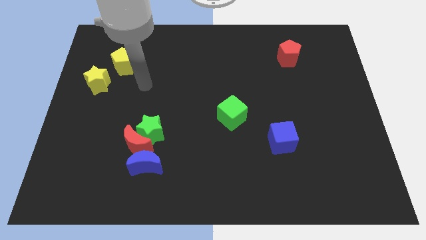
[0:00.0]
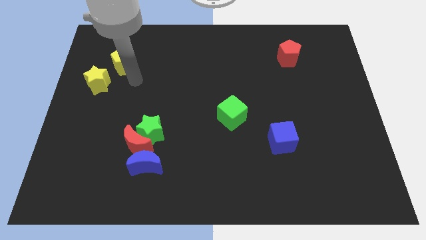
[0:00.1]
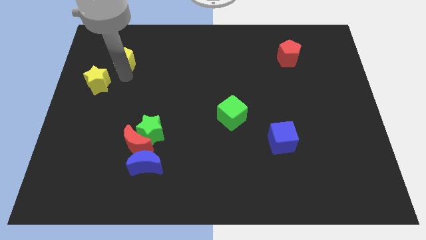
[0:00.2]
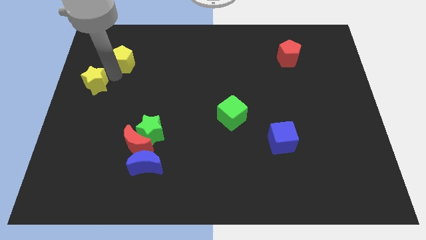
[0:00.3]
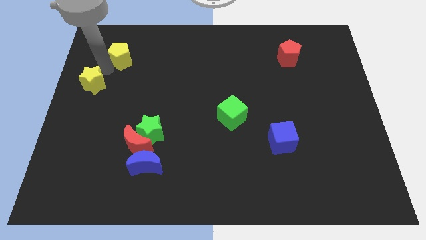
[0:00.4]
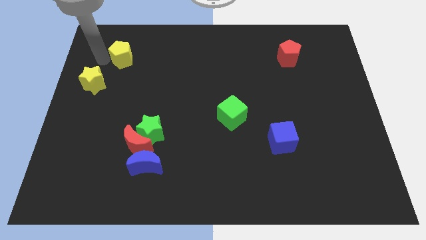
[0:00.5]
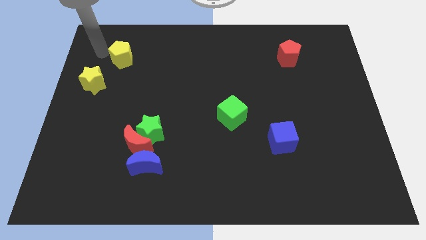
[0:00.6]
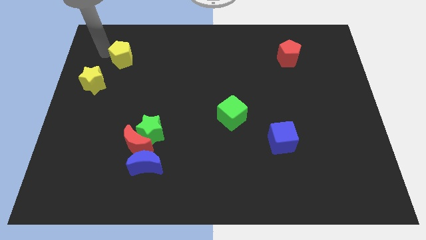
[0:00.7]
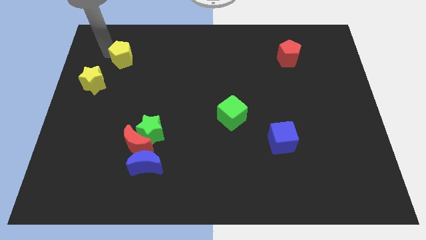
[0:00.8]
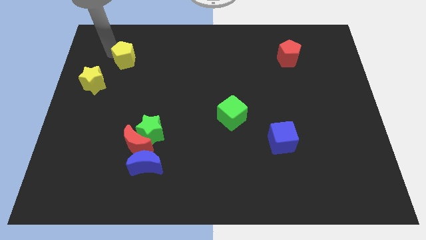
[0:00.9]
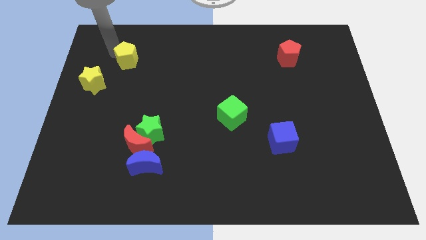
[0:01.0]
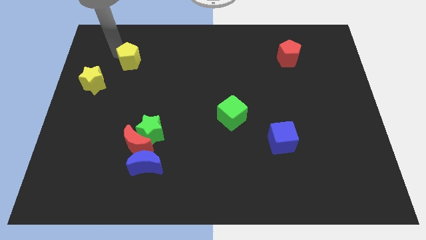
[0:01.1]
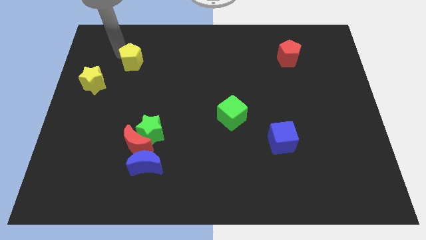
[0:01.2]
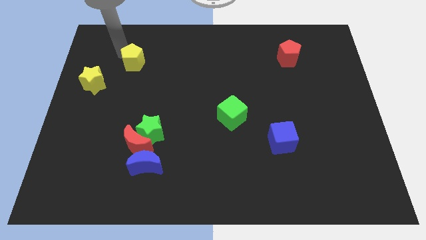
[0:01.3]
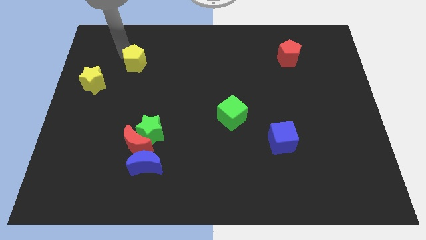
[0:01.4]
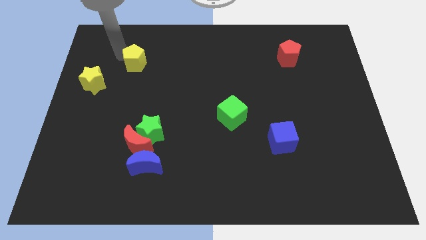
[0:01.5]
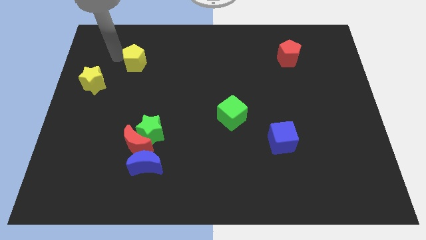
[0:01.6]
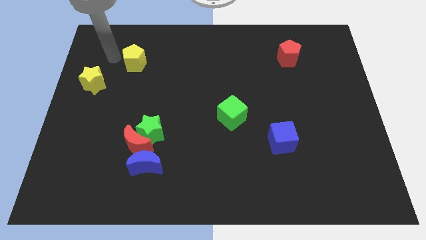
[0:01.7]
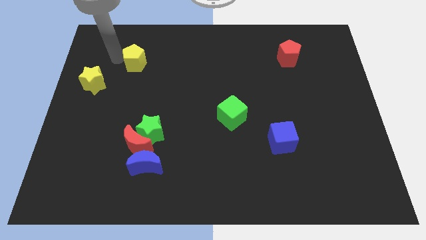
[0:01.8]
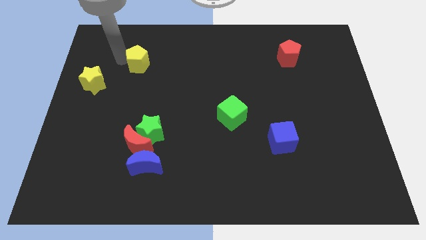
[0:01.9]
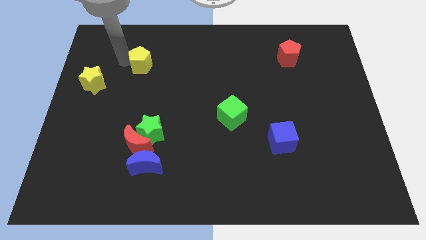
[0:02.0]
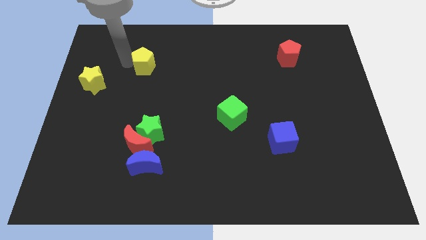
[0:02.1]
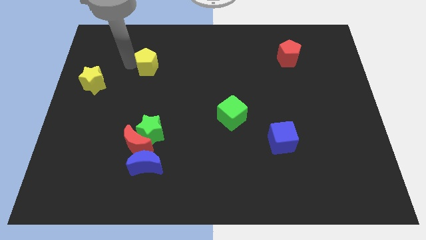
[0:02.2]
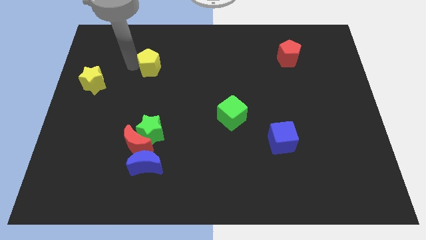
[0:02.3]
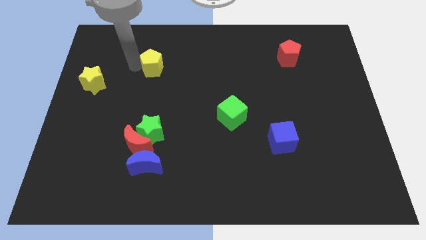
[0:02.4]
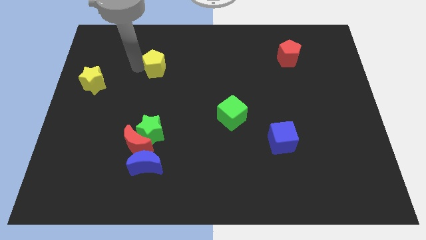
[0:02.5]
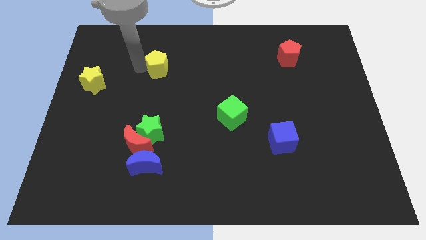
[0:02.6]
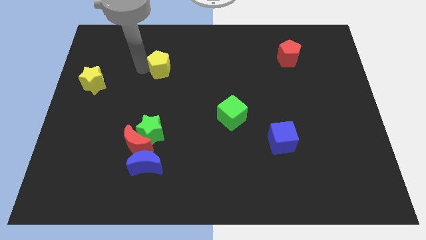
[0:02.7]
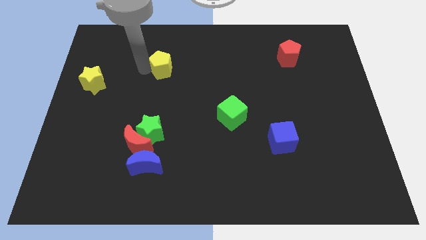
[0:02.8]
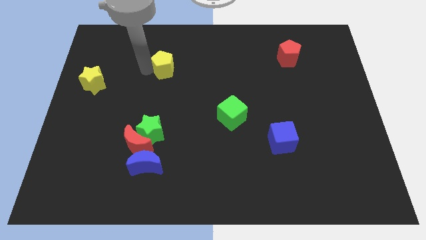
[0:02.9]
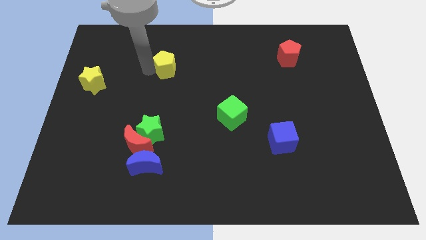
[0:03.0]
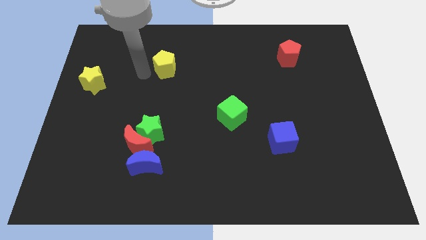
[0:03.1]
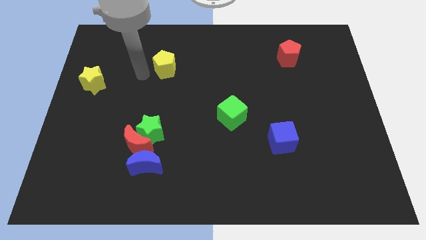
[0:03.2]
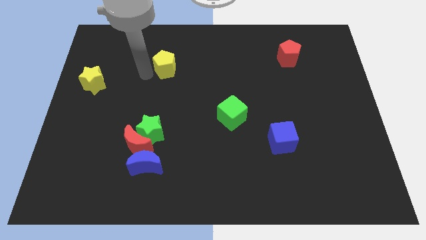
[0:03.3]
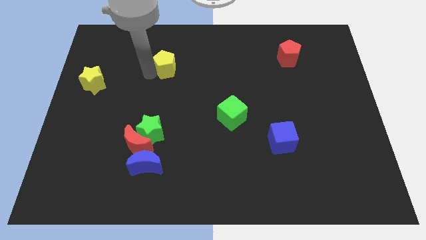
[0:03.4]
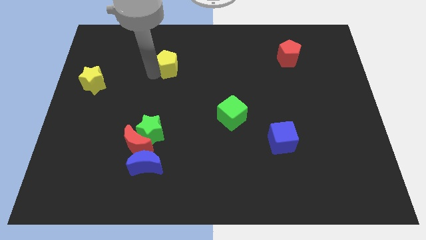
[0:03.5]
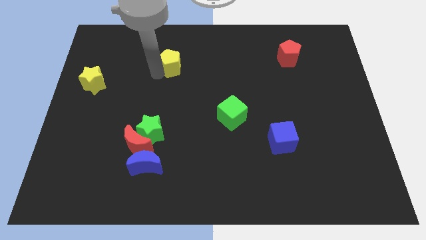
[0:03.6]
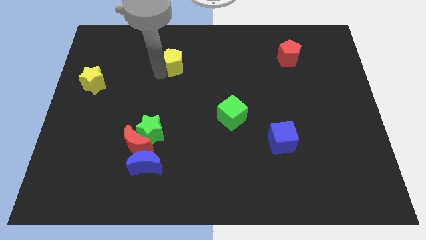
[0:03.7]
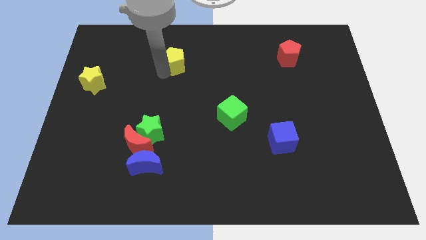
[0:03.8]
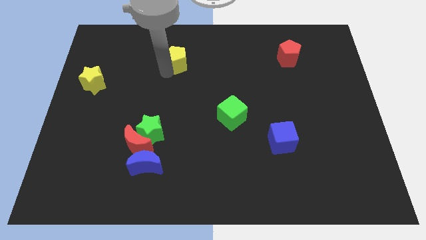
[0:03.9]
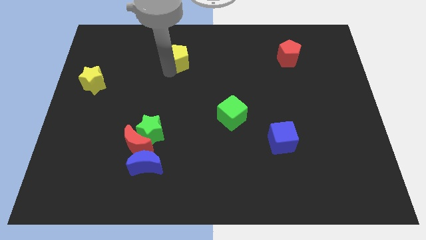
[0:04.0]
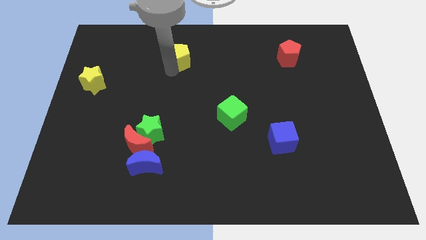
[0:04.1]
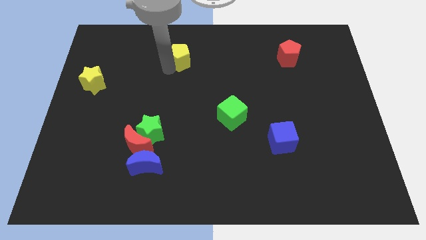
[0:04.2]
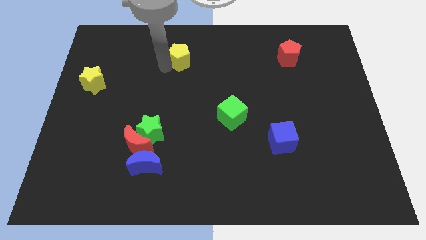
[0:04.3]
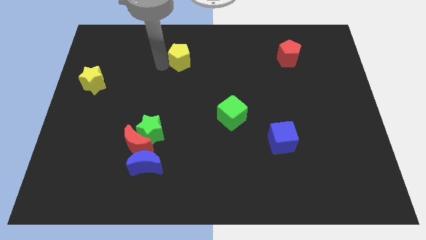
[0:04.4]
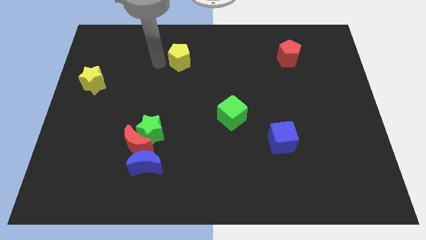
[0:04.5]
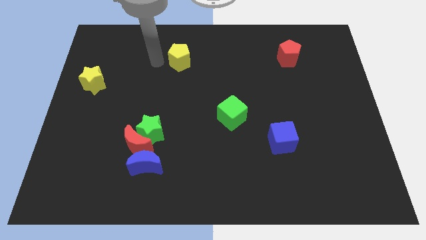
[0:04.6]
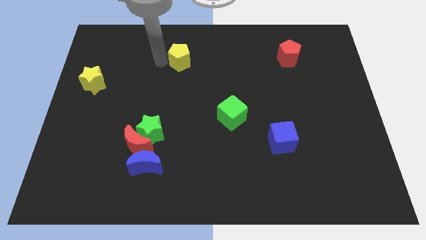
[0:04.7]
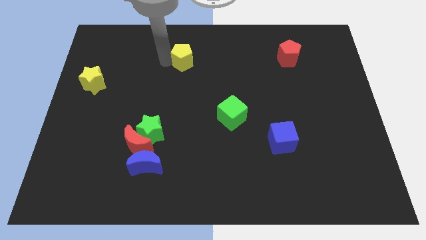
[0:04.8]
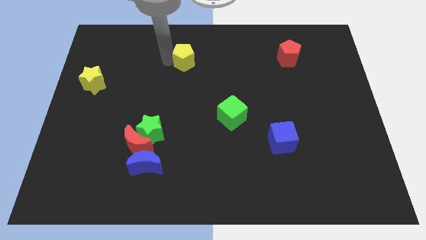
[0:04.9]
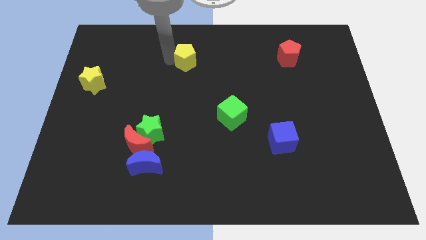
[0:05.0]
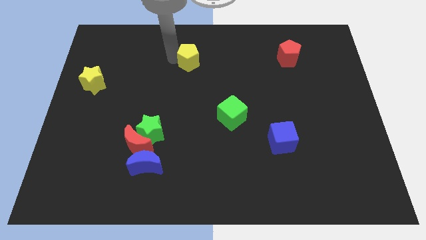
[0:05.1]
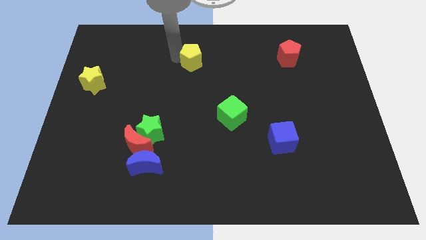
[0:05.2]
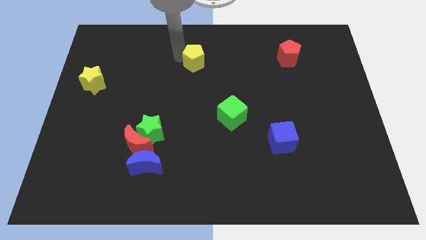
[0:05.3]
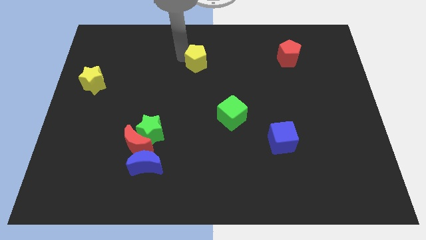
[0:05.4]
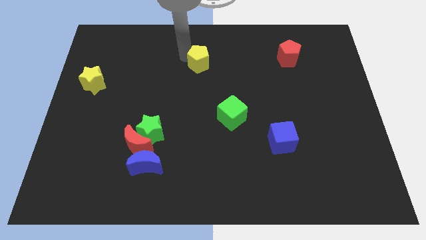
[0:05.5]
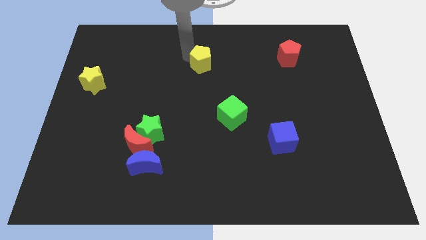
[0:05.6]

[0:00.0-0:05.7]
move the yellow pentagon to the right

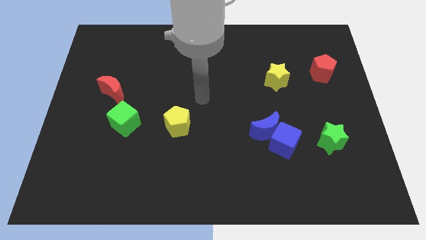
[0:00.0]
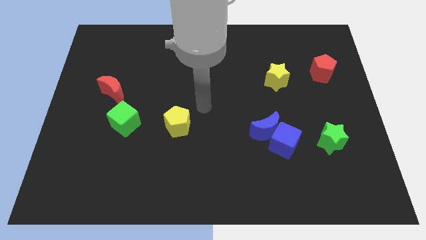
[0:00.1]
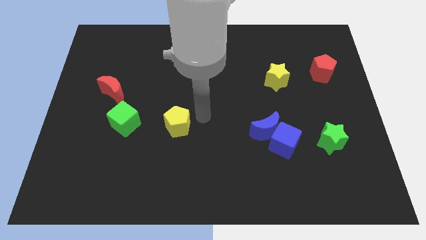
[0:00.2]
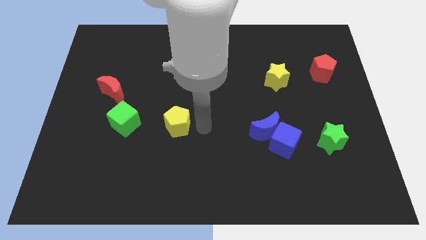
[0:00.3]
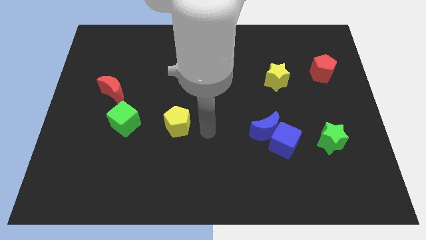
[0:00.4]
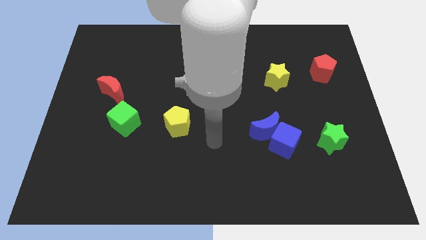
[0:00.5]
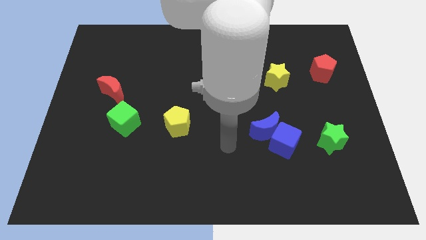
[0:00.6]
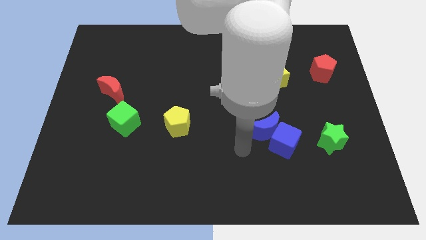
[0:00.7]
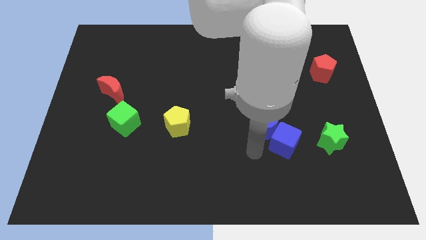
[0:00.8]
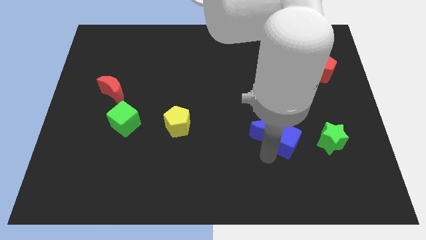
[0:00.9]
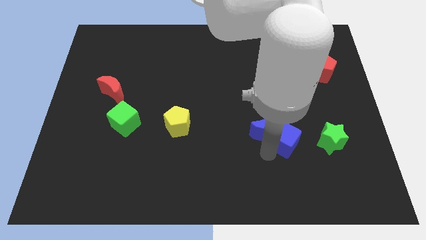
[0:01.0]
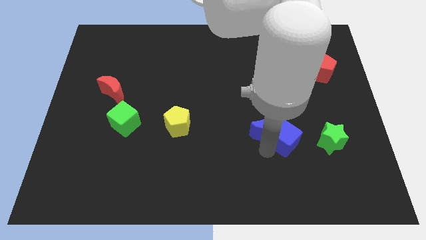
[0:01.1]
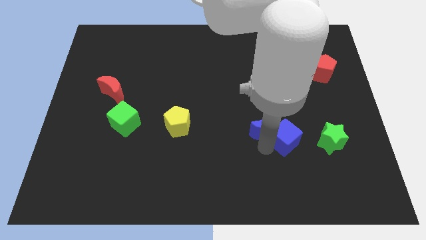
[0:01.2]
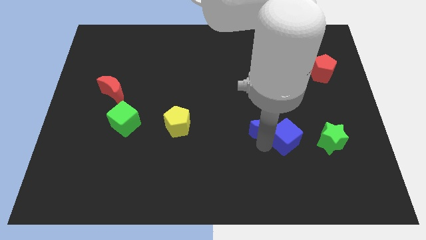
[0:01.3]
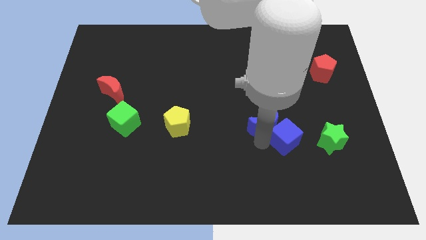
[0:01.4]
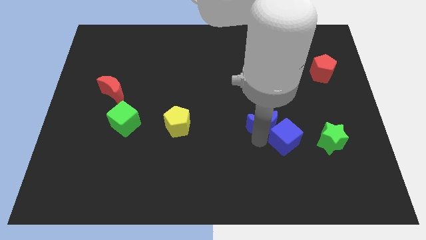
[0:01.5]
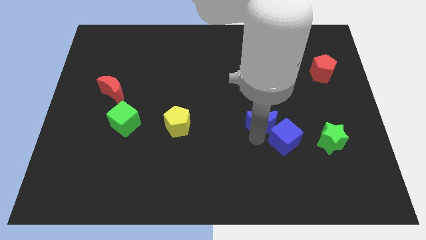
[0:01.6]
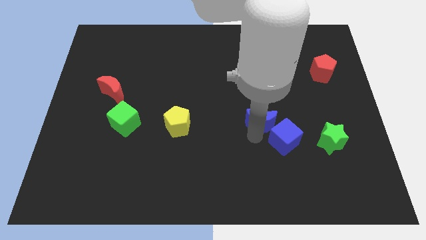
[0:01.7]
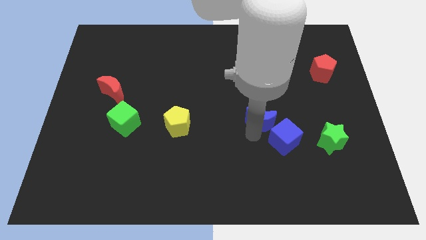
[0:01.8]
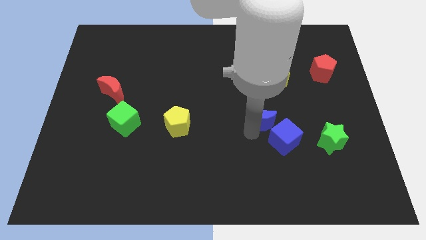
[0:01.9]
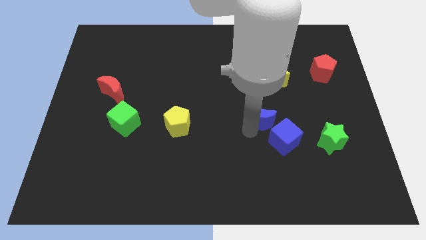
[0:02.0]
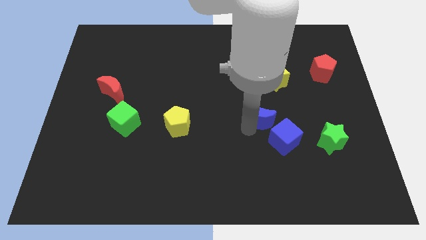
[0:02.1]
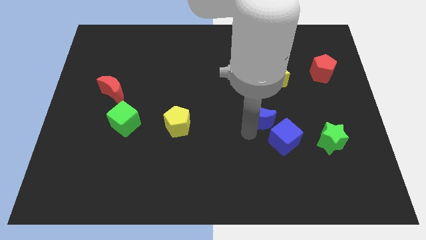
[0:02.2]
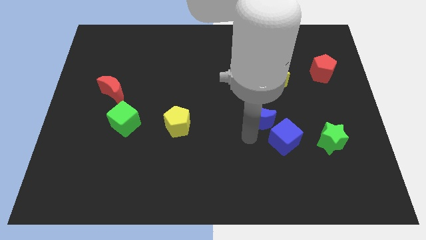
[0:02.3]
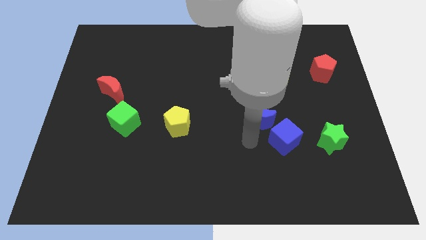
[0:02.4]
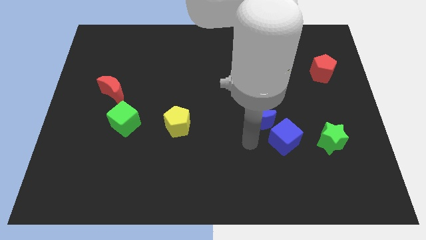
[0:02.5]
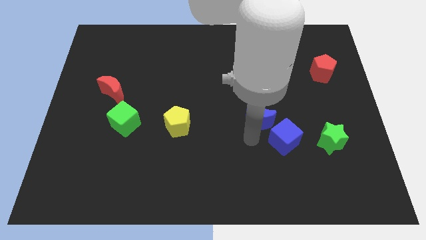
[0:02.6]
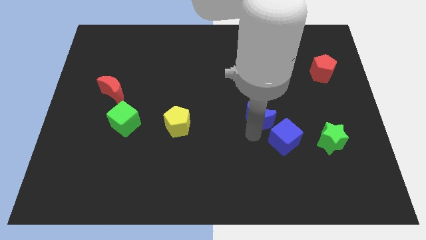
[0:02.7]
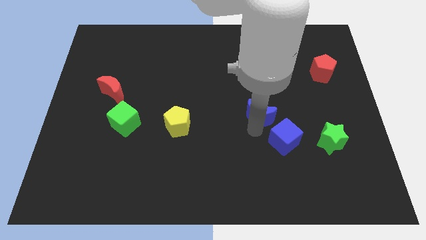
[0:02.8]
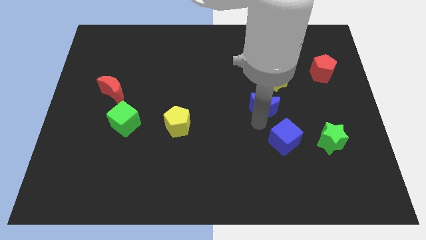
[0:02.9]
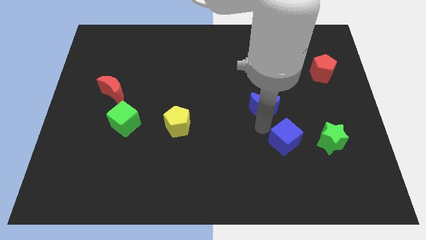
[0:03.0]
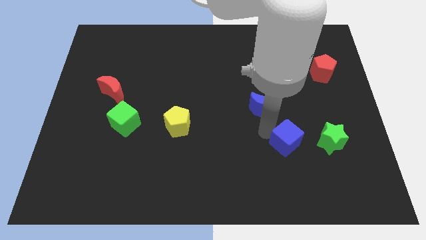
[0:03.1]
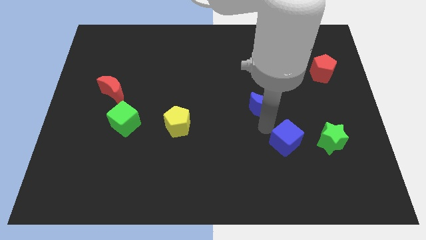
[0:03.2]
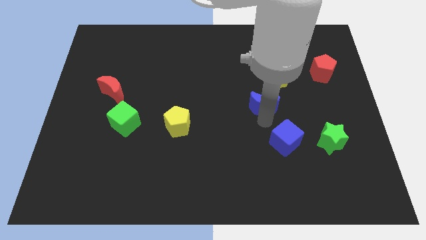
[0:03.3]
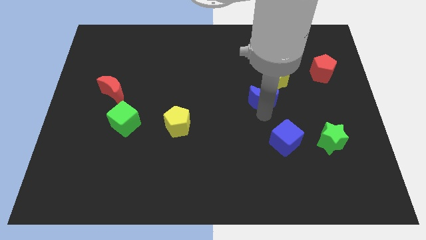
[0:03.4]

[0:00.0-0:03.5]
push the blue moon a little bit up
